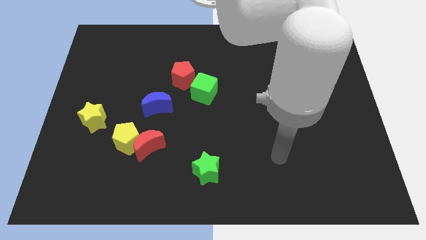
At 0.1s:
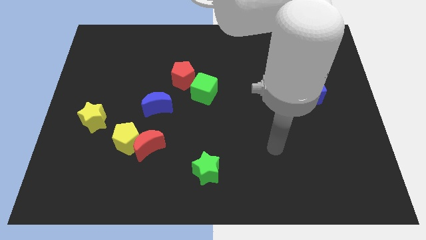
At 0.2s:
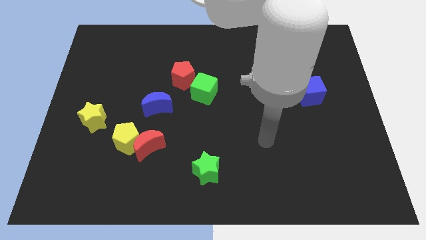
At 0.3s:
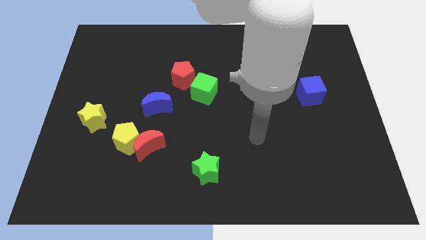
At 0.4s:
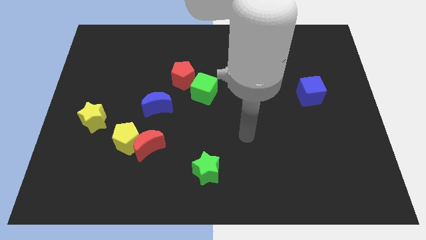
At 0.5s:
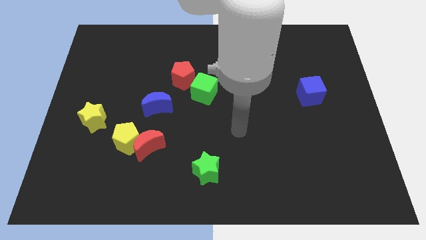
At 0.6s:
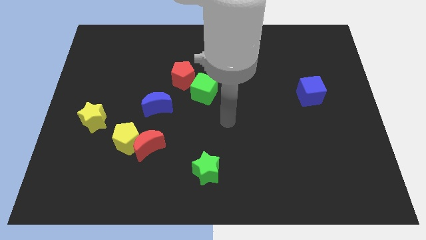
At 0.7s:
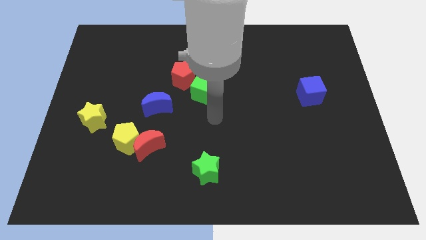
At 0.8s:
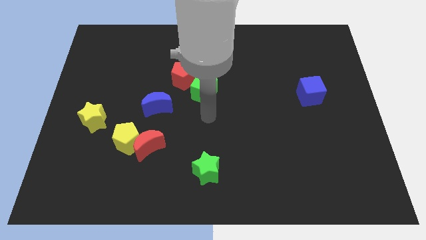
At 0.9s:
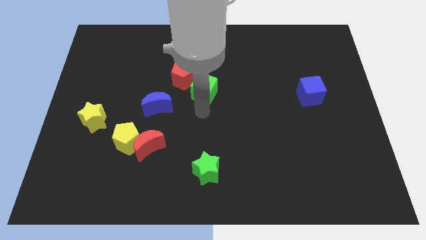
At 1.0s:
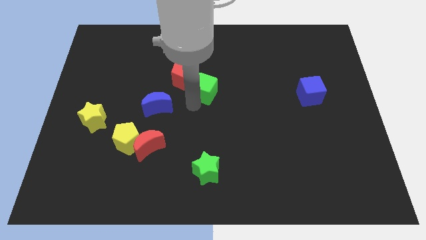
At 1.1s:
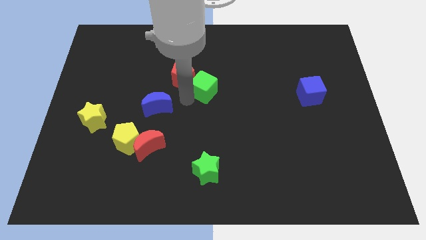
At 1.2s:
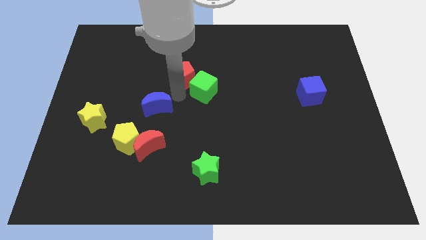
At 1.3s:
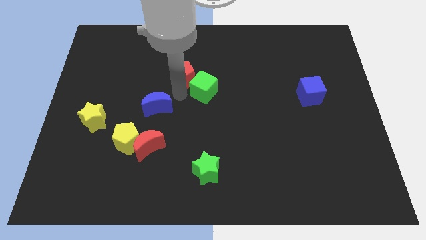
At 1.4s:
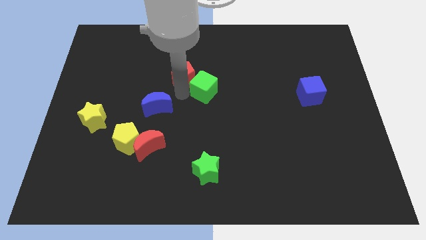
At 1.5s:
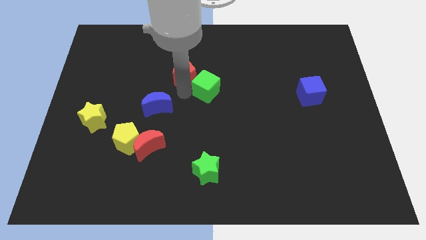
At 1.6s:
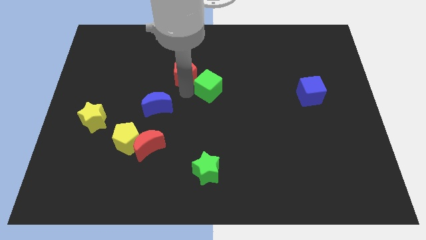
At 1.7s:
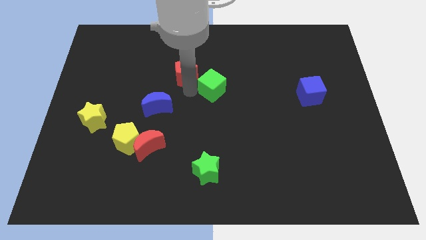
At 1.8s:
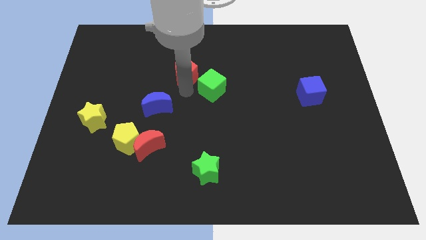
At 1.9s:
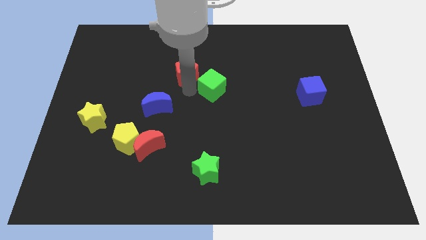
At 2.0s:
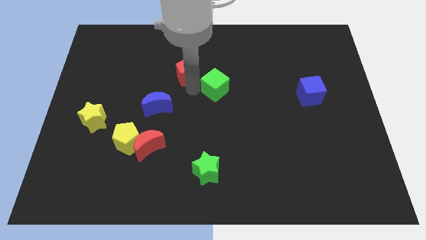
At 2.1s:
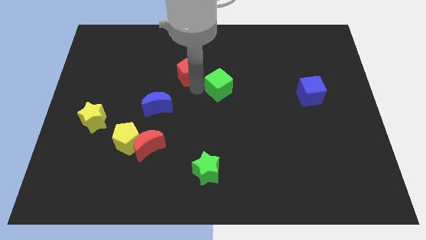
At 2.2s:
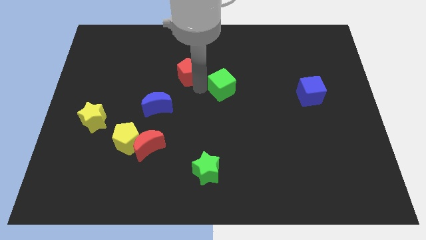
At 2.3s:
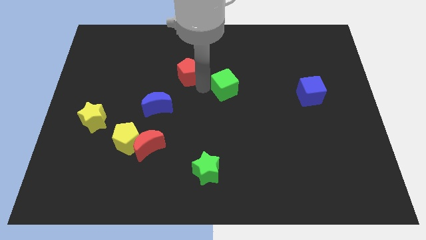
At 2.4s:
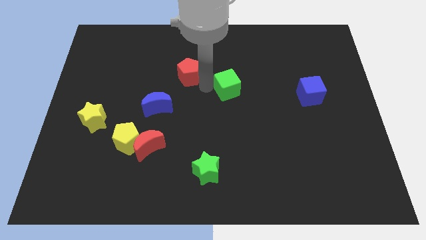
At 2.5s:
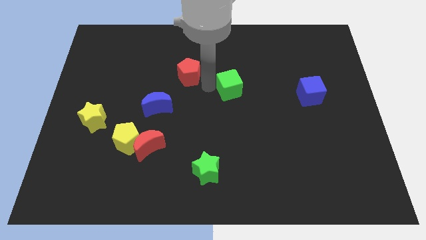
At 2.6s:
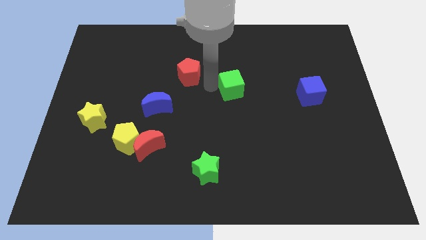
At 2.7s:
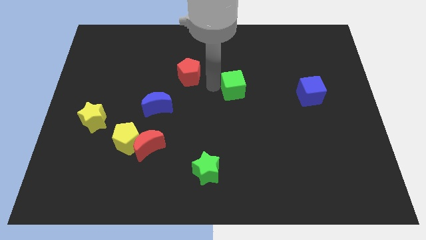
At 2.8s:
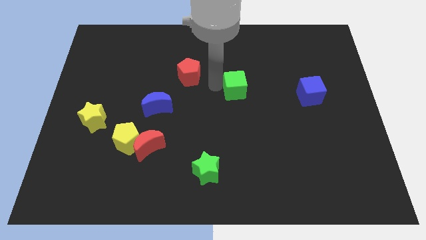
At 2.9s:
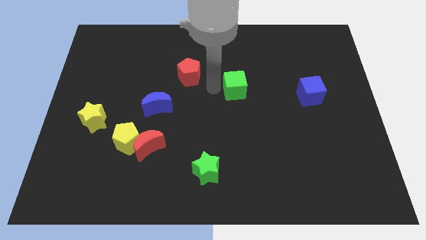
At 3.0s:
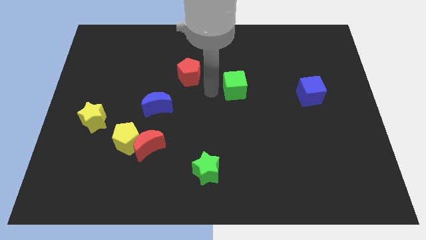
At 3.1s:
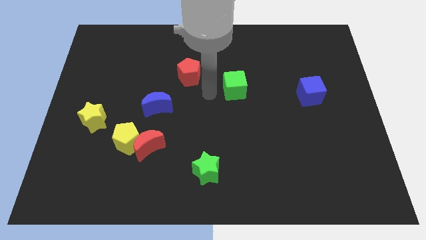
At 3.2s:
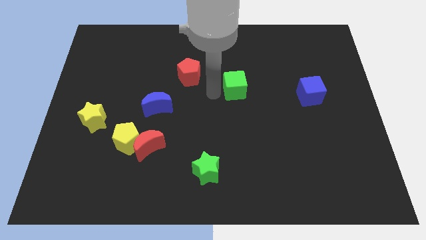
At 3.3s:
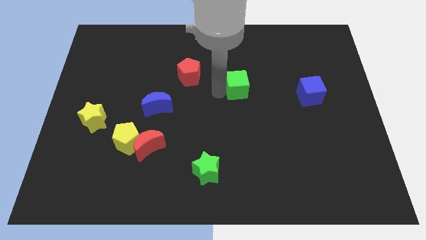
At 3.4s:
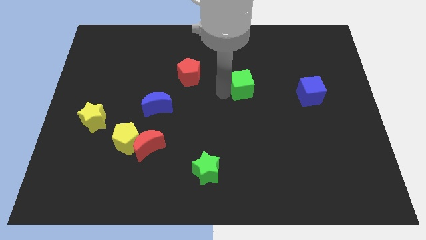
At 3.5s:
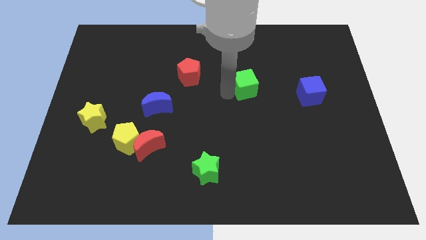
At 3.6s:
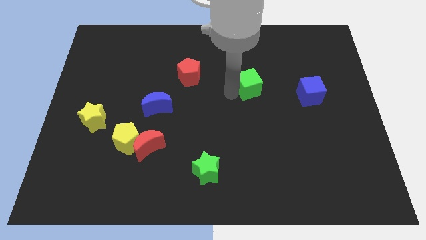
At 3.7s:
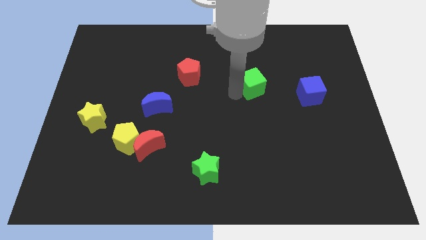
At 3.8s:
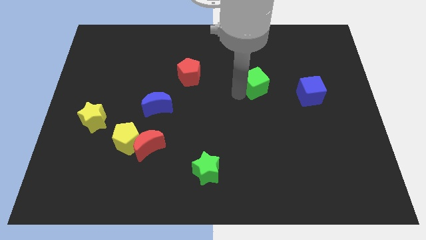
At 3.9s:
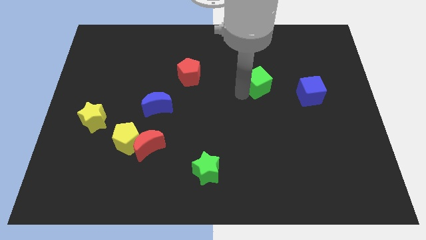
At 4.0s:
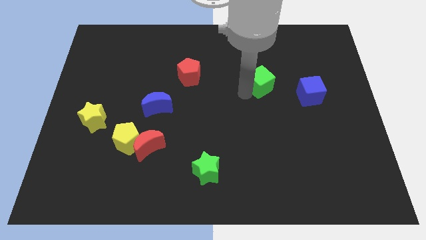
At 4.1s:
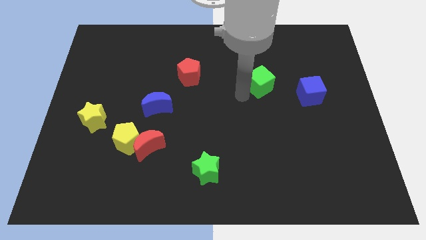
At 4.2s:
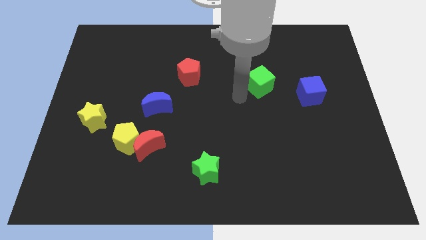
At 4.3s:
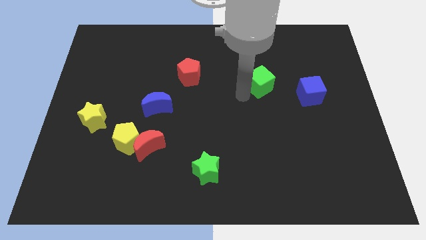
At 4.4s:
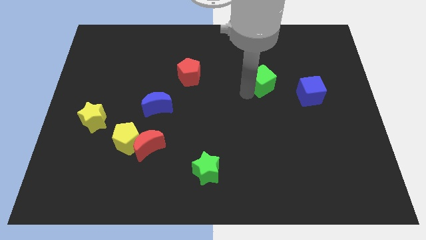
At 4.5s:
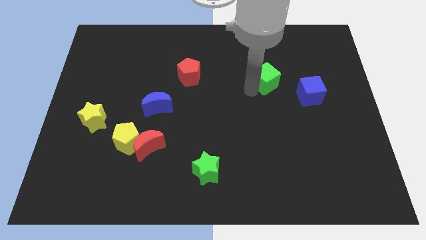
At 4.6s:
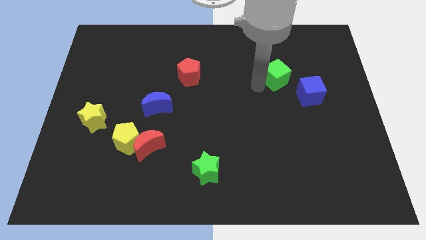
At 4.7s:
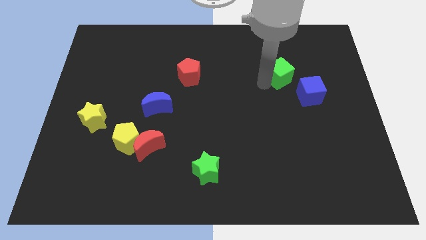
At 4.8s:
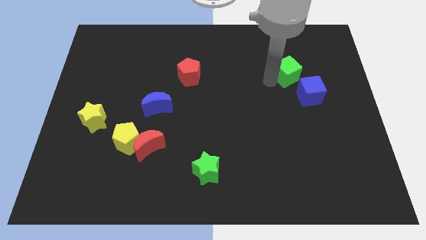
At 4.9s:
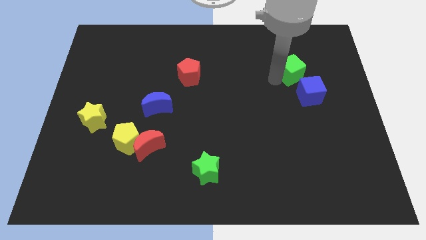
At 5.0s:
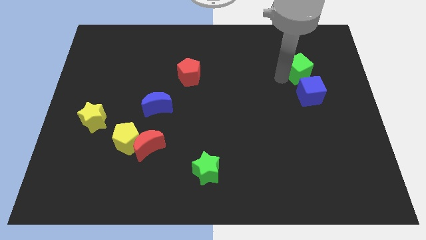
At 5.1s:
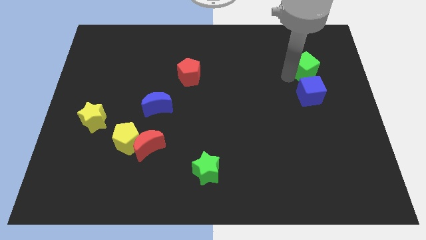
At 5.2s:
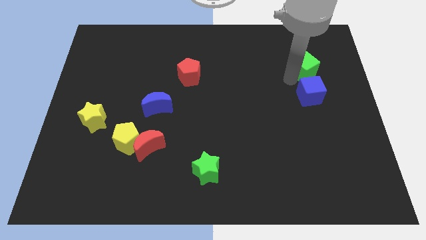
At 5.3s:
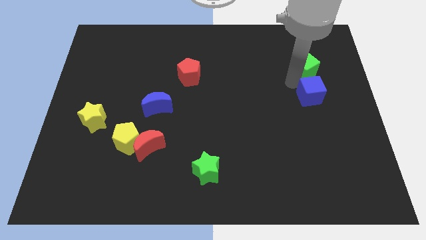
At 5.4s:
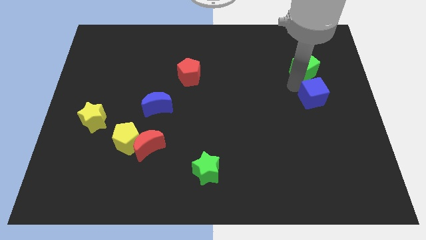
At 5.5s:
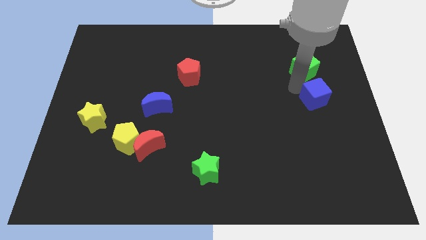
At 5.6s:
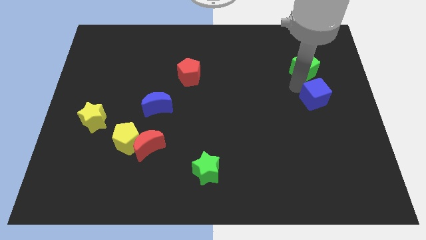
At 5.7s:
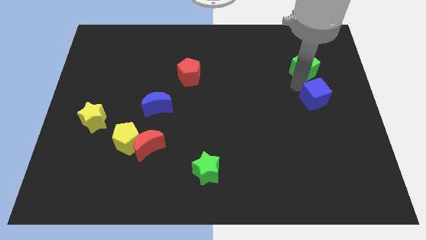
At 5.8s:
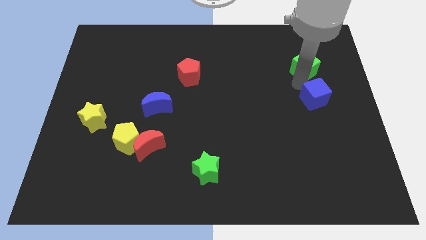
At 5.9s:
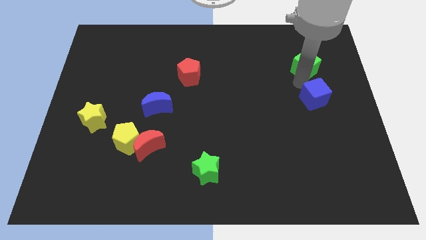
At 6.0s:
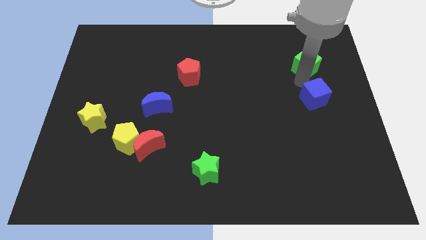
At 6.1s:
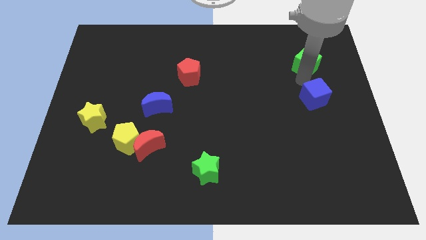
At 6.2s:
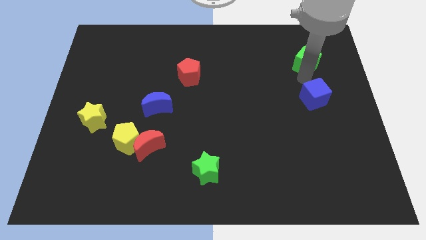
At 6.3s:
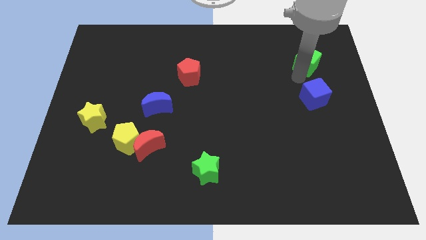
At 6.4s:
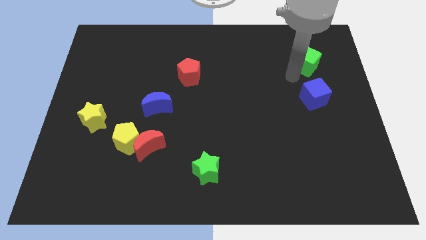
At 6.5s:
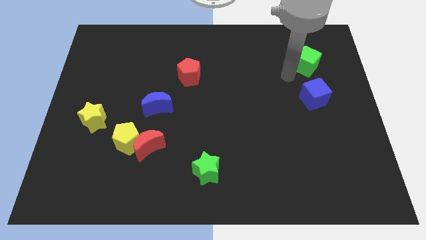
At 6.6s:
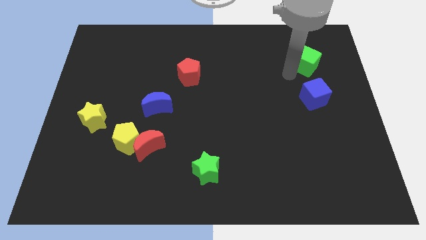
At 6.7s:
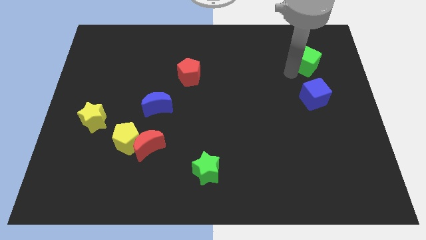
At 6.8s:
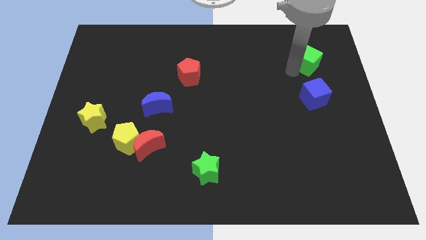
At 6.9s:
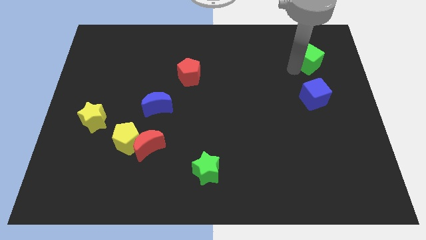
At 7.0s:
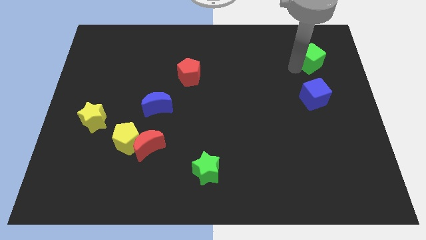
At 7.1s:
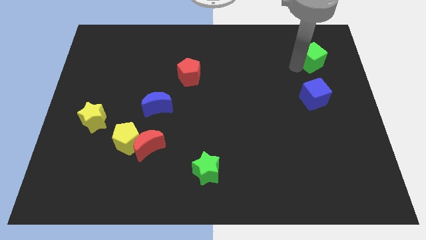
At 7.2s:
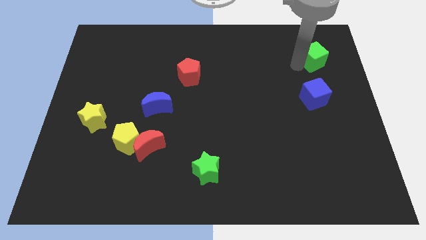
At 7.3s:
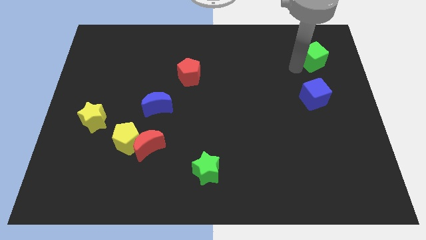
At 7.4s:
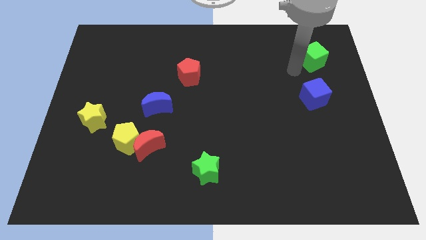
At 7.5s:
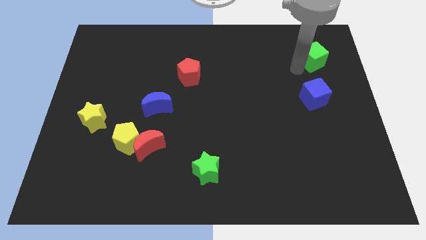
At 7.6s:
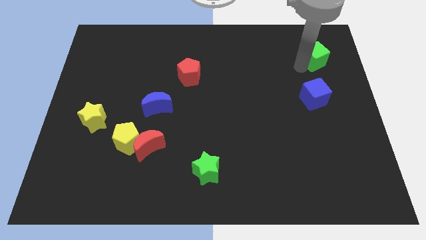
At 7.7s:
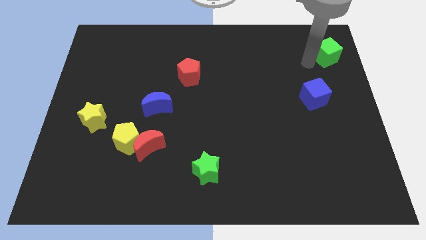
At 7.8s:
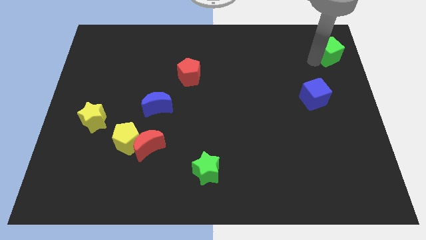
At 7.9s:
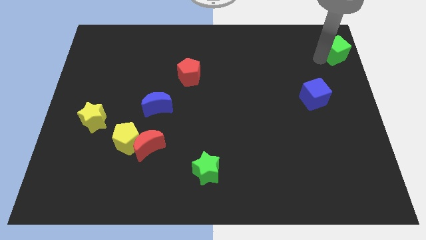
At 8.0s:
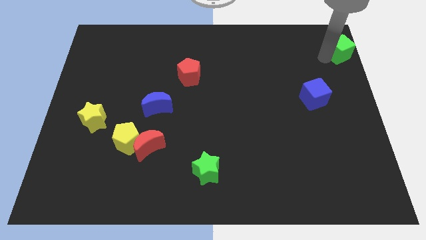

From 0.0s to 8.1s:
put the green cube to the top right corner
